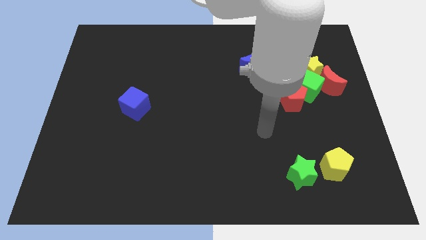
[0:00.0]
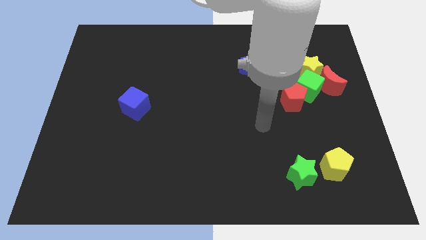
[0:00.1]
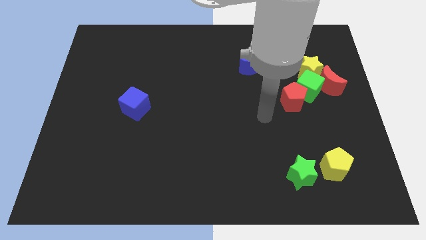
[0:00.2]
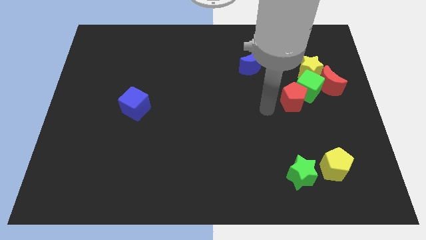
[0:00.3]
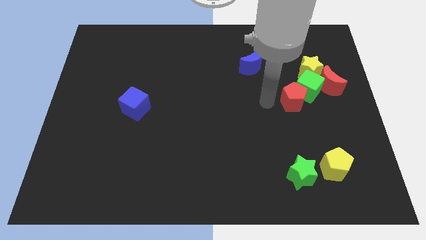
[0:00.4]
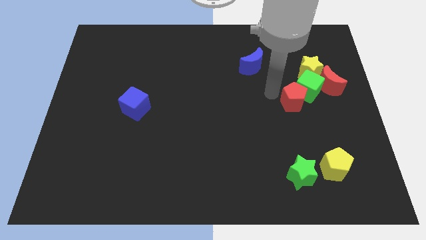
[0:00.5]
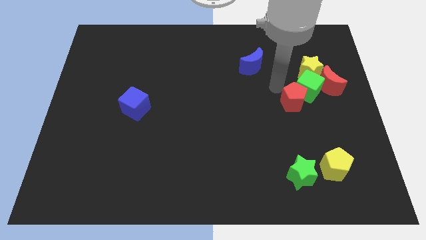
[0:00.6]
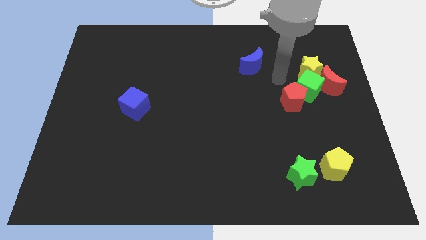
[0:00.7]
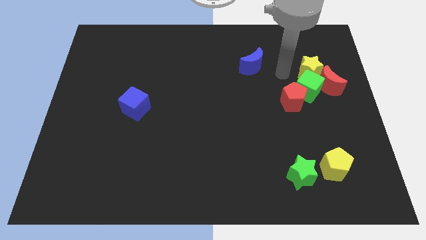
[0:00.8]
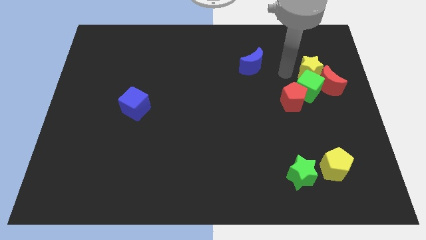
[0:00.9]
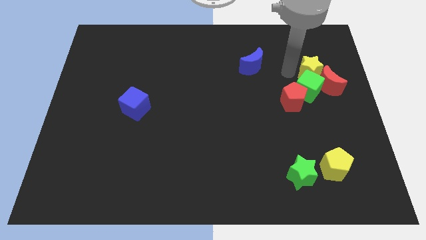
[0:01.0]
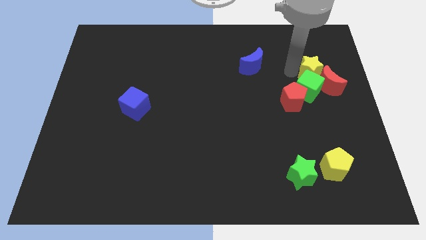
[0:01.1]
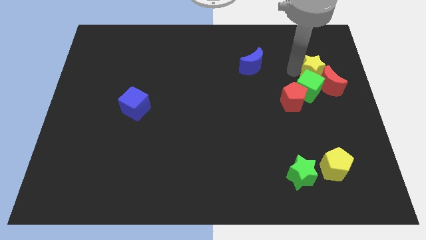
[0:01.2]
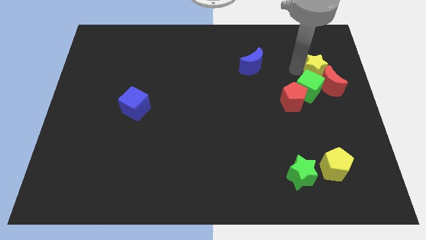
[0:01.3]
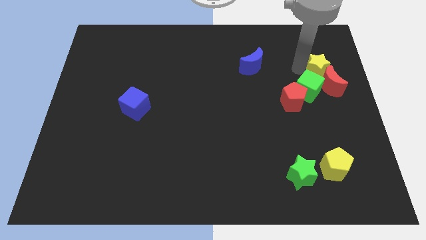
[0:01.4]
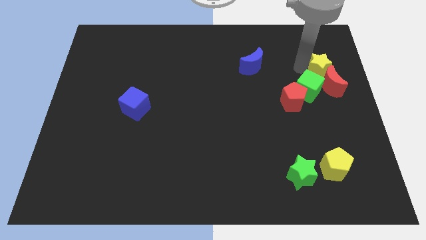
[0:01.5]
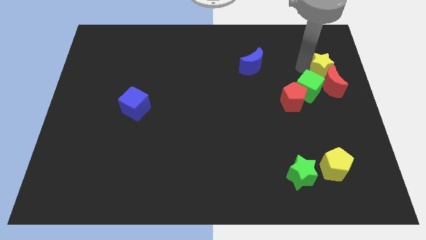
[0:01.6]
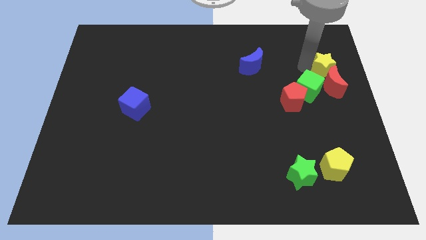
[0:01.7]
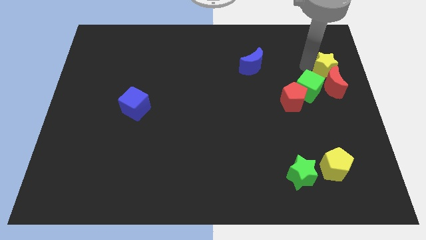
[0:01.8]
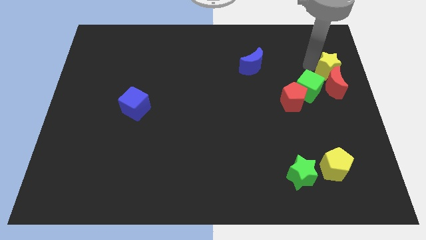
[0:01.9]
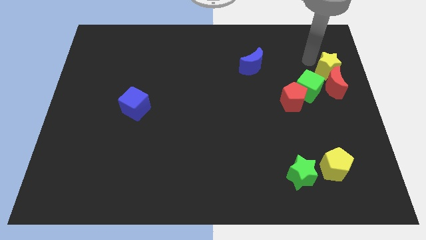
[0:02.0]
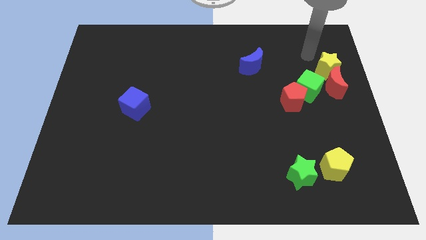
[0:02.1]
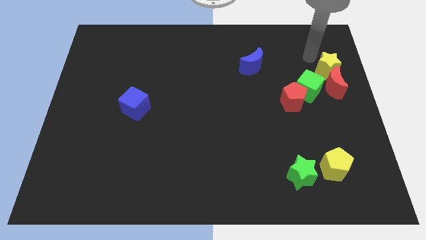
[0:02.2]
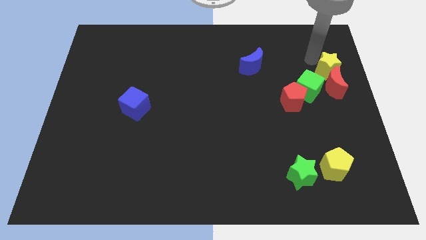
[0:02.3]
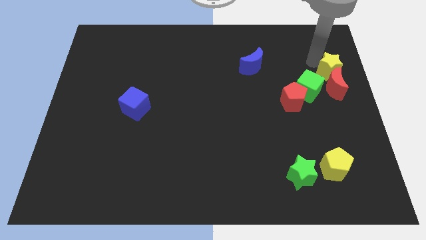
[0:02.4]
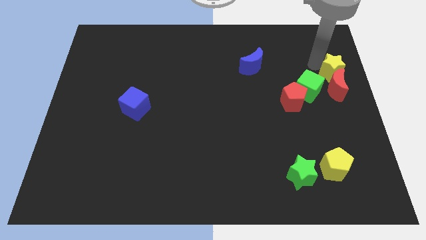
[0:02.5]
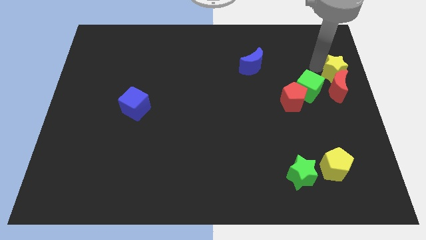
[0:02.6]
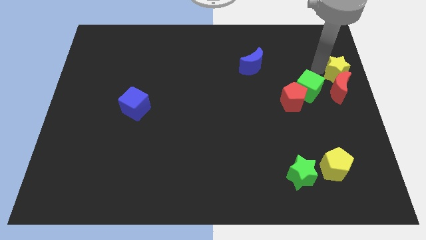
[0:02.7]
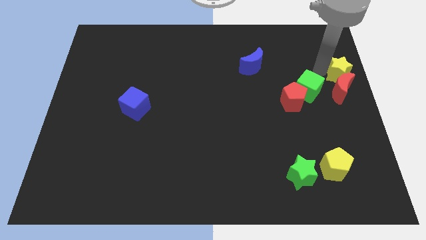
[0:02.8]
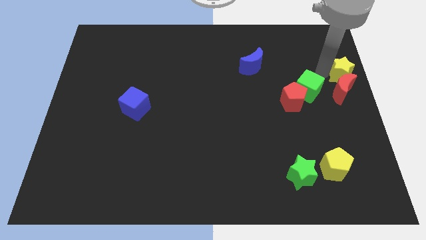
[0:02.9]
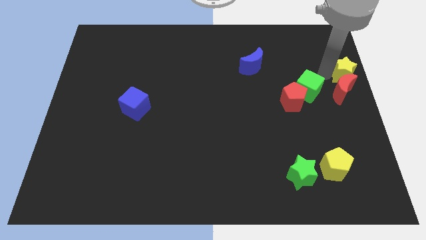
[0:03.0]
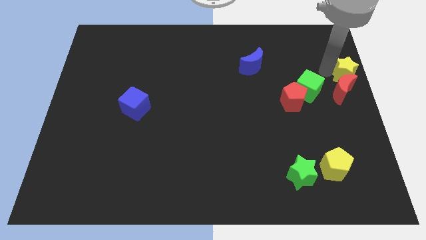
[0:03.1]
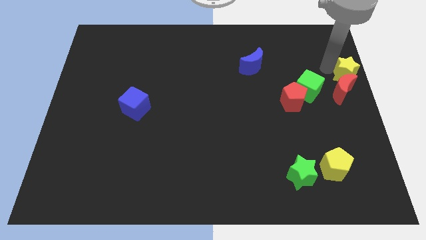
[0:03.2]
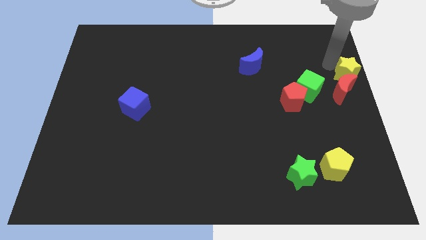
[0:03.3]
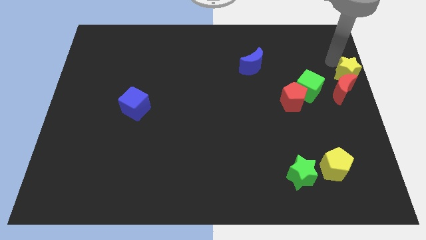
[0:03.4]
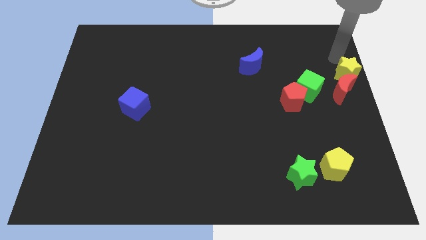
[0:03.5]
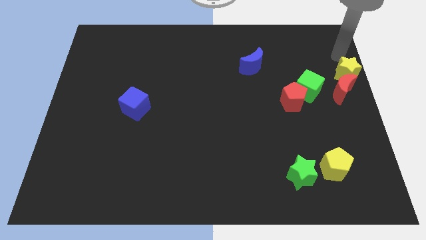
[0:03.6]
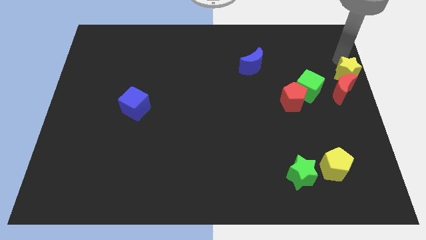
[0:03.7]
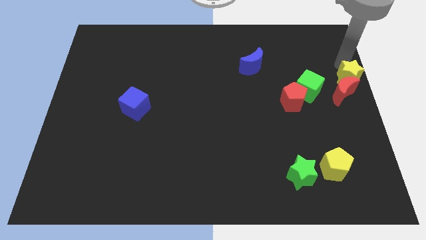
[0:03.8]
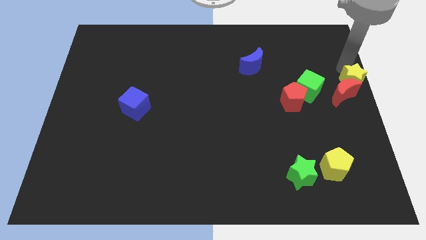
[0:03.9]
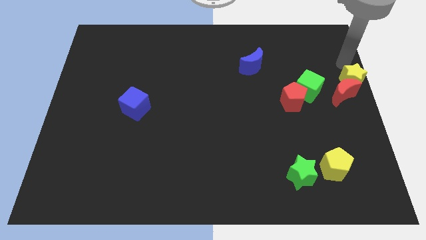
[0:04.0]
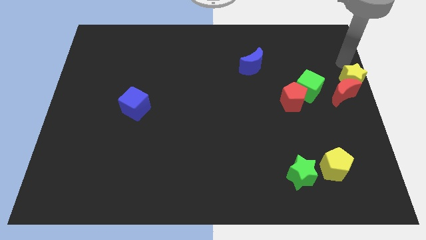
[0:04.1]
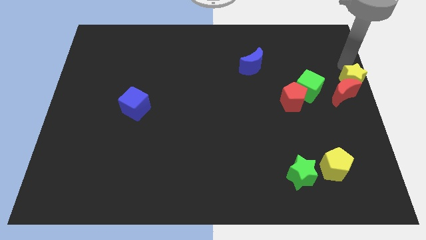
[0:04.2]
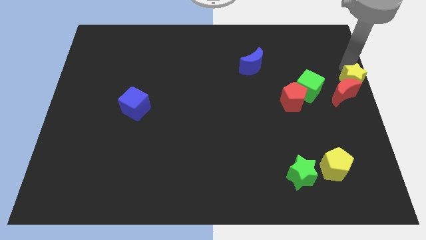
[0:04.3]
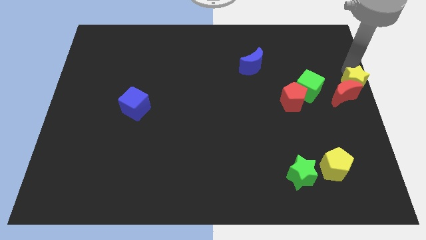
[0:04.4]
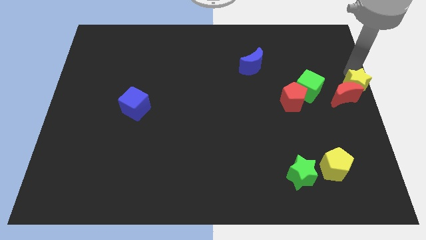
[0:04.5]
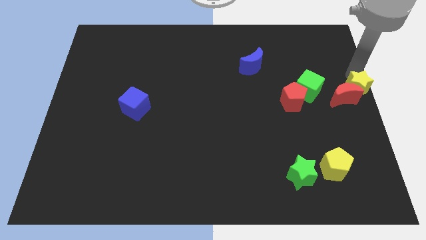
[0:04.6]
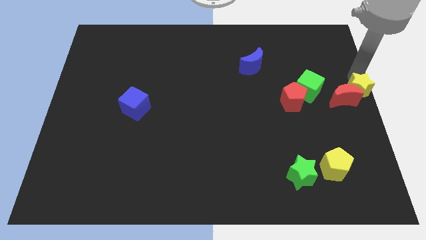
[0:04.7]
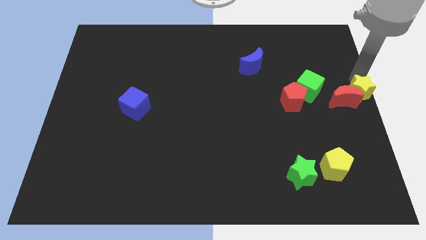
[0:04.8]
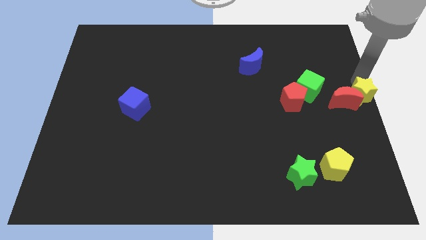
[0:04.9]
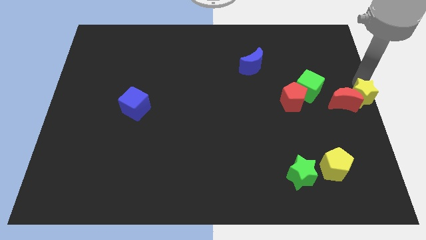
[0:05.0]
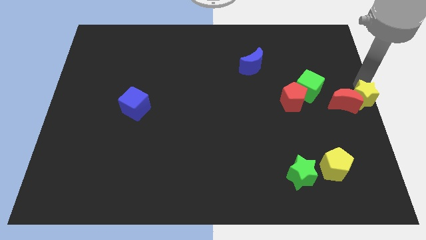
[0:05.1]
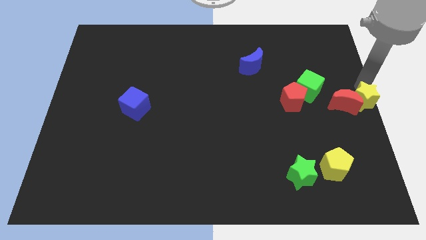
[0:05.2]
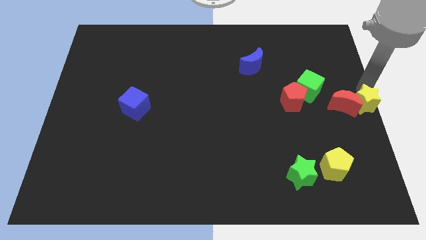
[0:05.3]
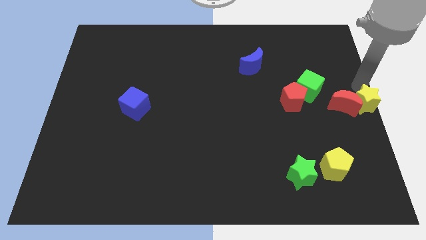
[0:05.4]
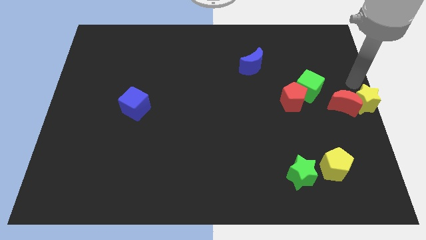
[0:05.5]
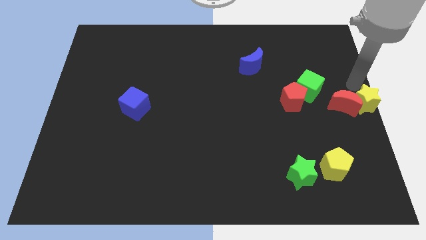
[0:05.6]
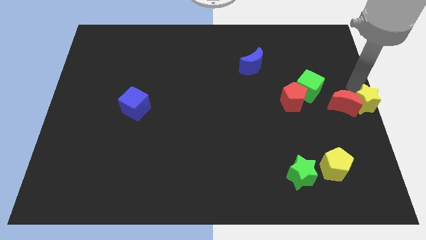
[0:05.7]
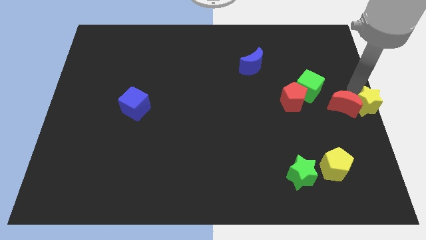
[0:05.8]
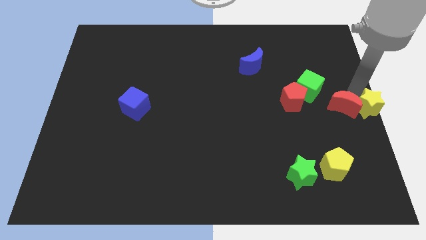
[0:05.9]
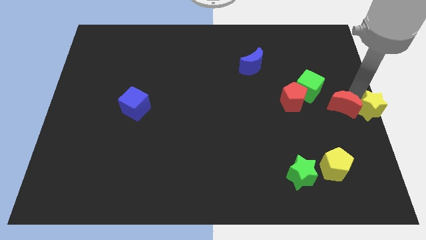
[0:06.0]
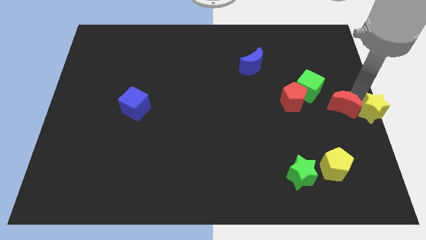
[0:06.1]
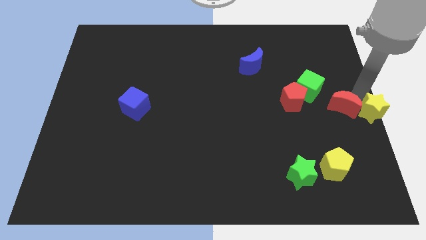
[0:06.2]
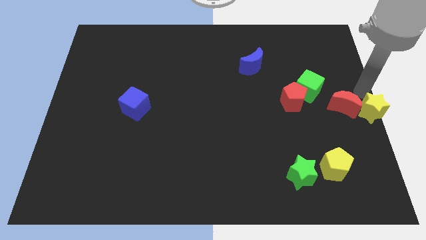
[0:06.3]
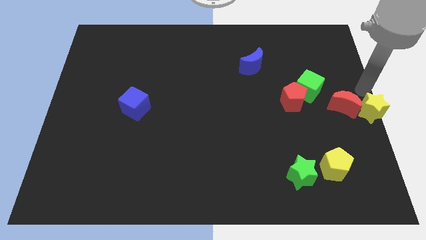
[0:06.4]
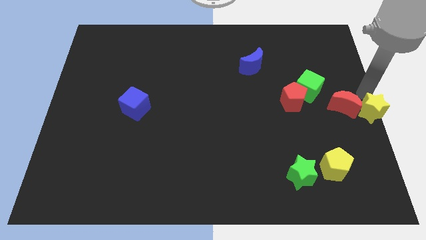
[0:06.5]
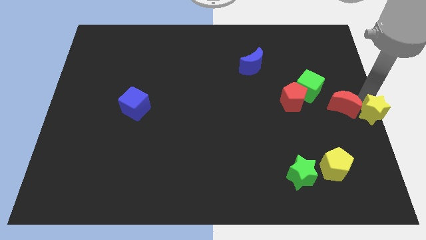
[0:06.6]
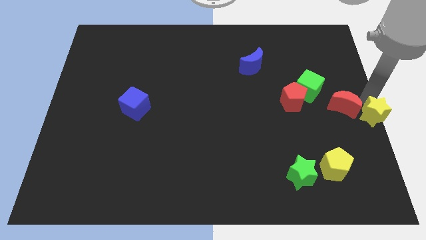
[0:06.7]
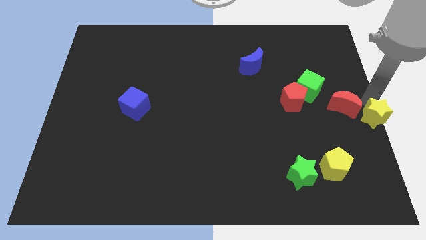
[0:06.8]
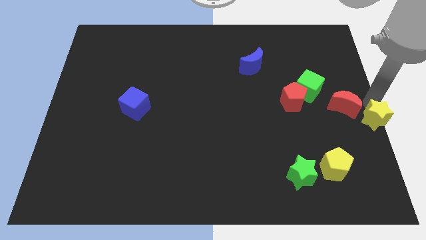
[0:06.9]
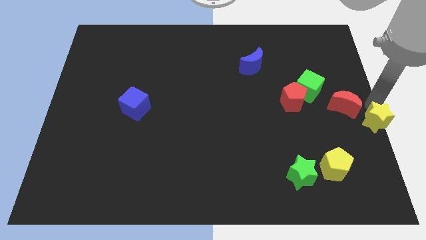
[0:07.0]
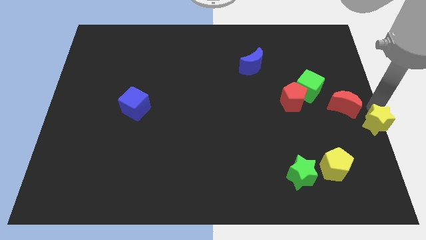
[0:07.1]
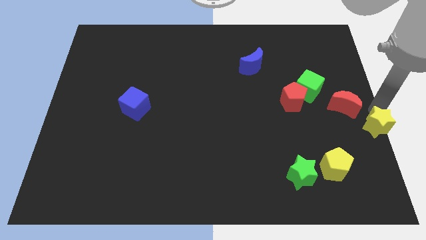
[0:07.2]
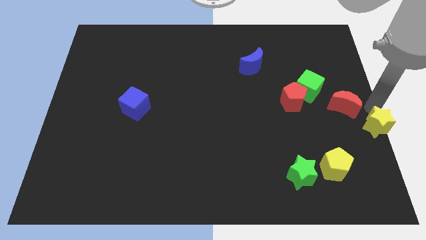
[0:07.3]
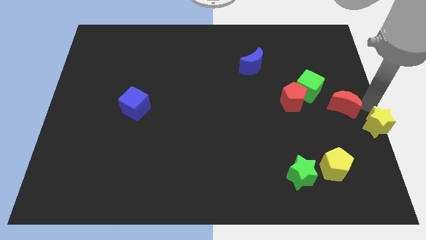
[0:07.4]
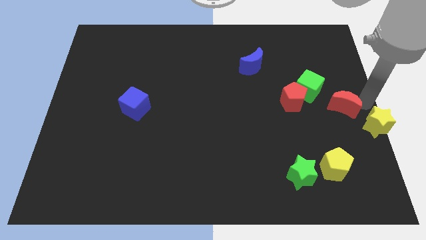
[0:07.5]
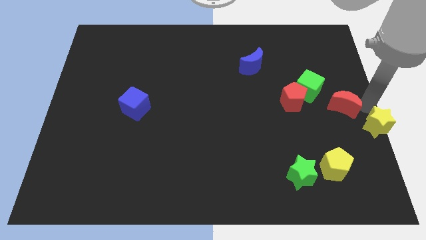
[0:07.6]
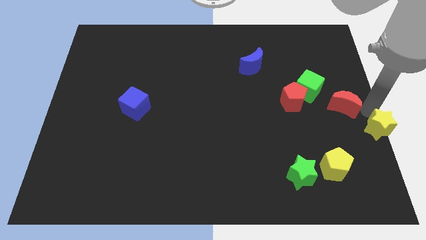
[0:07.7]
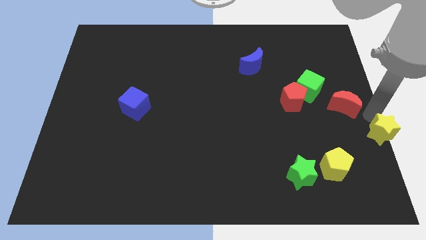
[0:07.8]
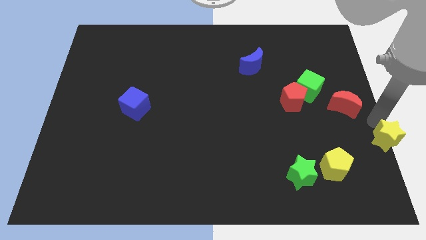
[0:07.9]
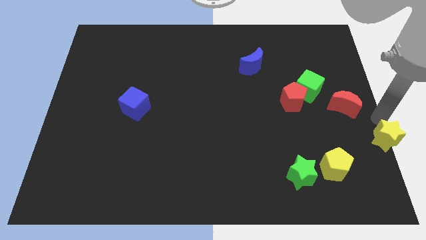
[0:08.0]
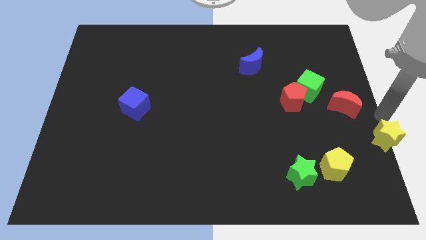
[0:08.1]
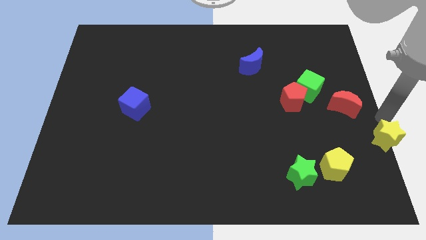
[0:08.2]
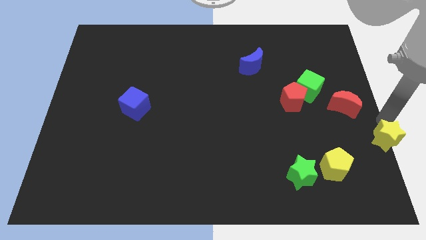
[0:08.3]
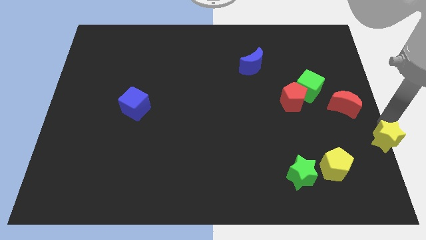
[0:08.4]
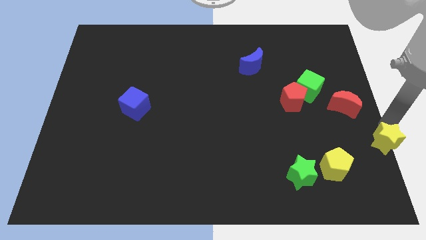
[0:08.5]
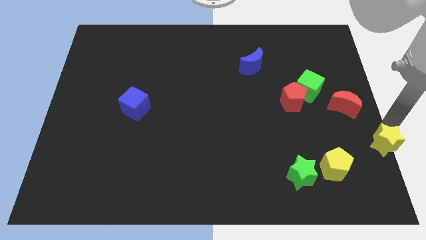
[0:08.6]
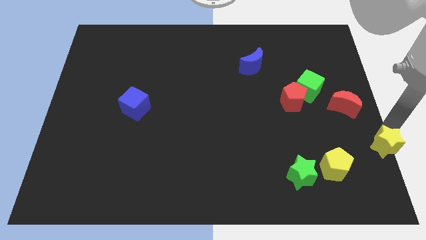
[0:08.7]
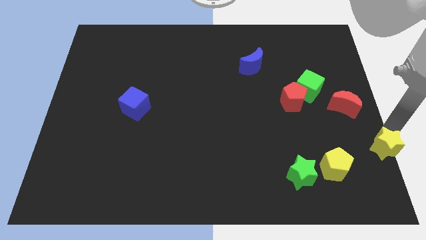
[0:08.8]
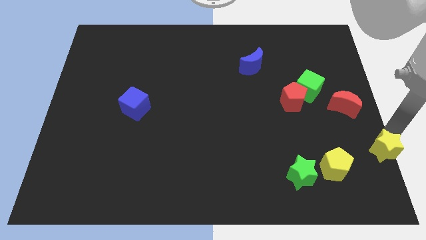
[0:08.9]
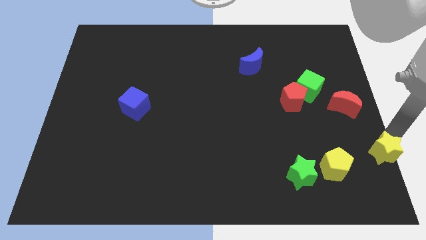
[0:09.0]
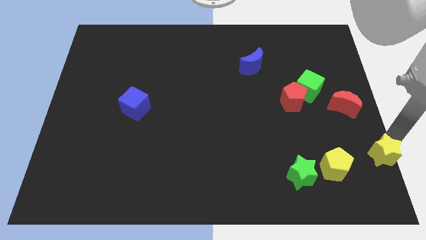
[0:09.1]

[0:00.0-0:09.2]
put the yellow star to the bottom right
